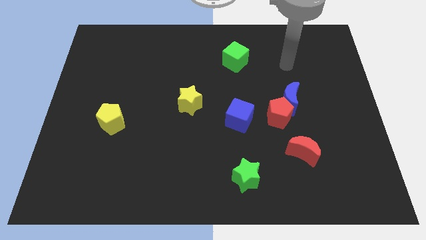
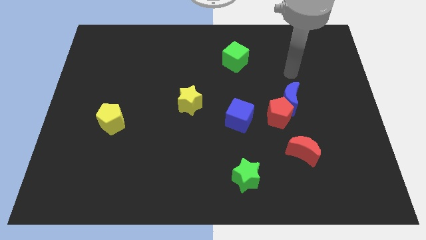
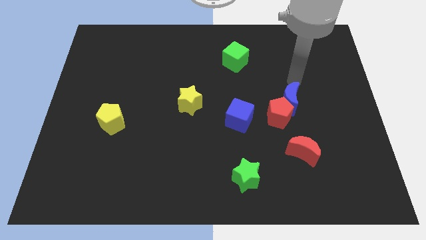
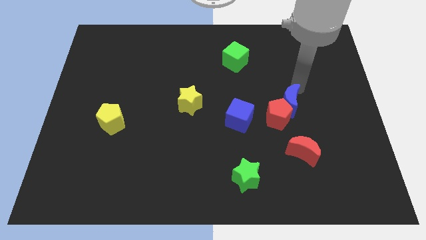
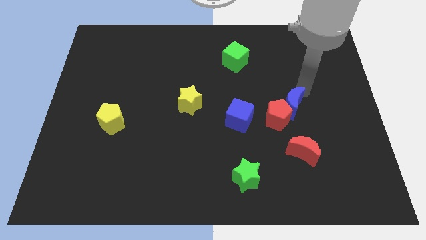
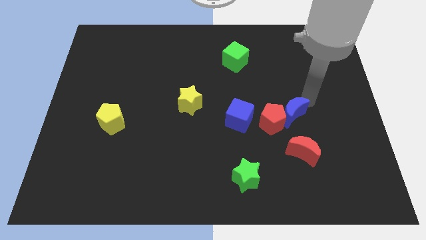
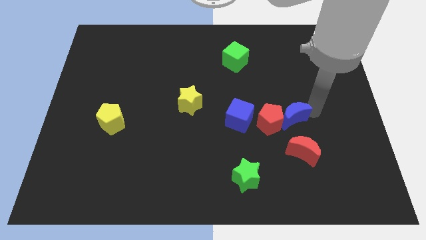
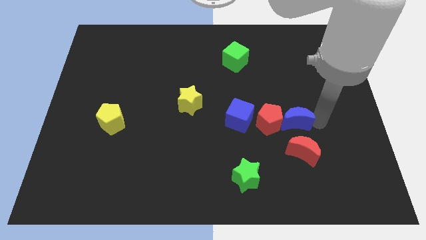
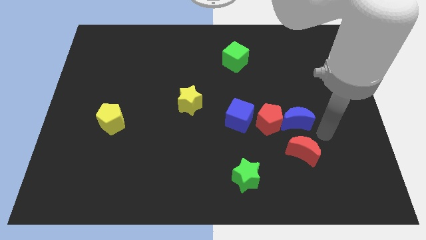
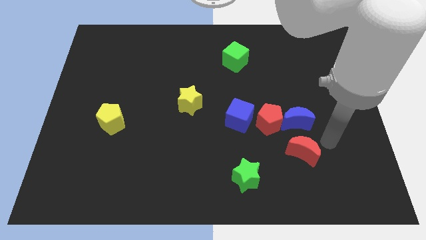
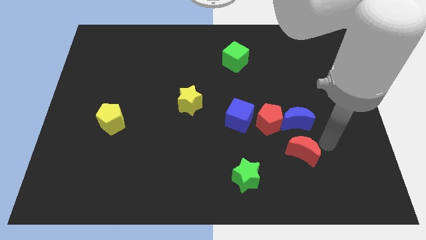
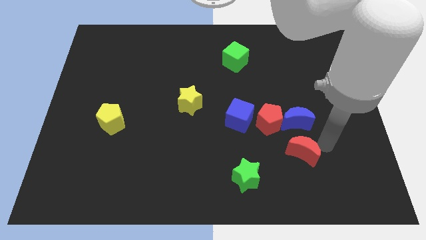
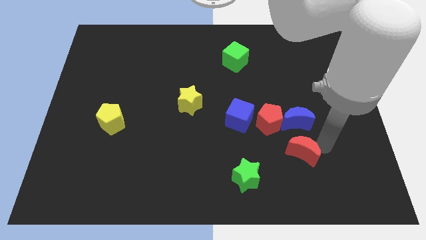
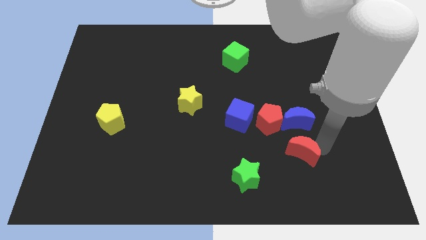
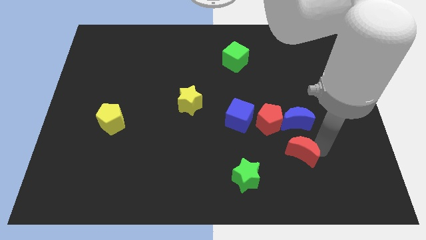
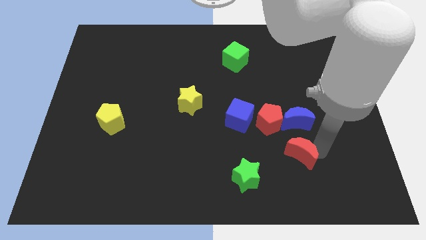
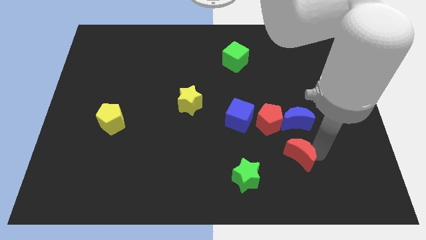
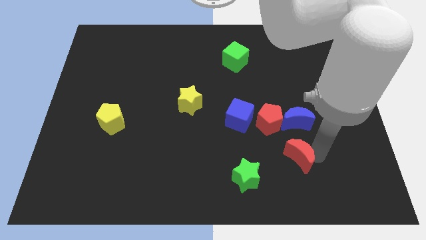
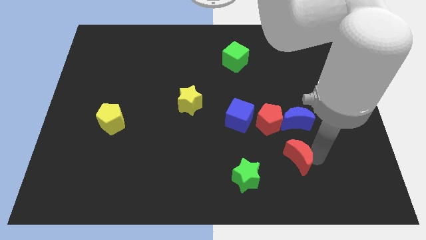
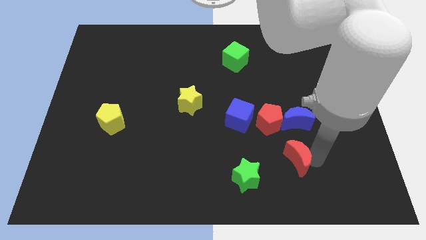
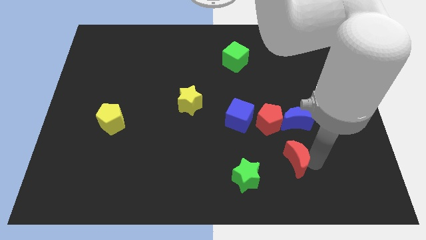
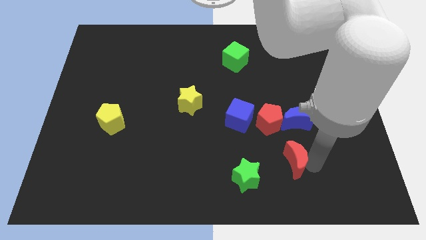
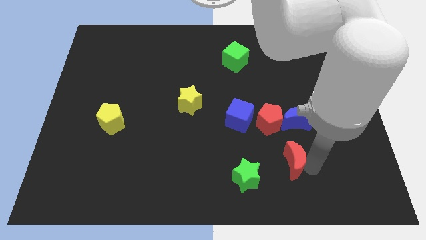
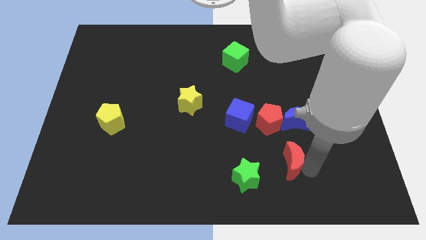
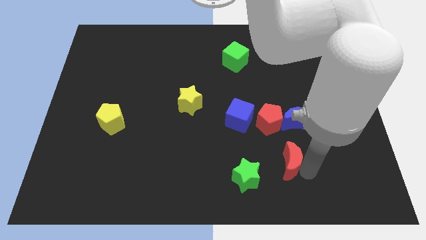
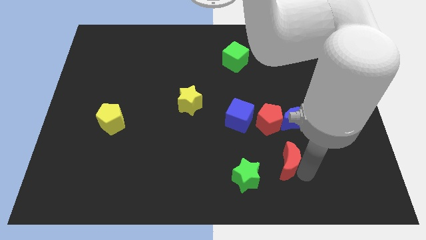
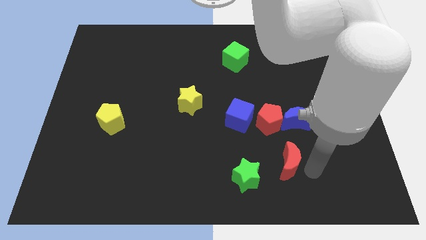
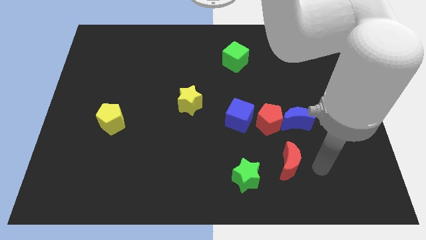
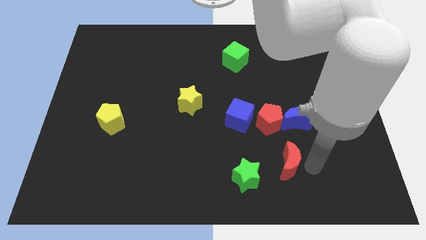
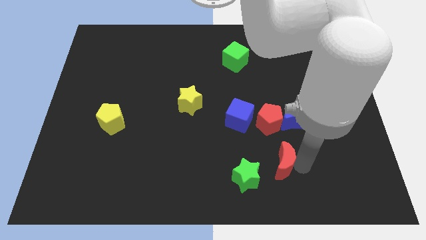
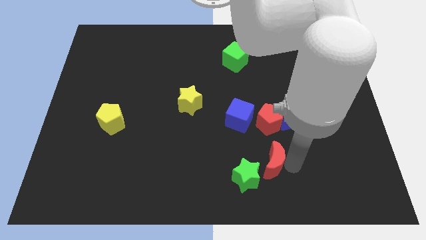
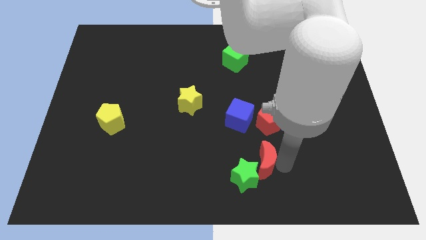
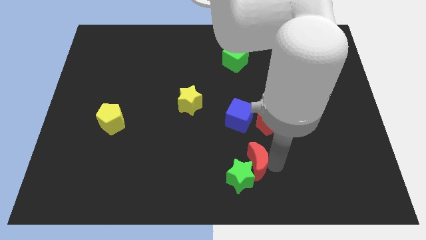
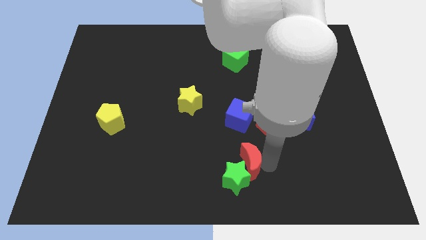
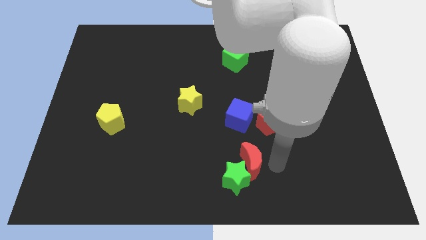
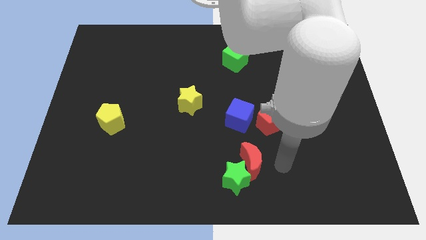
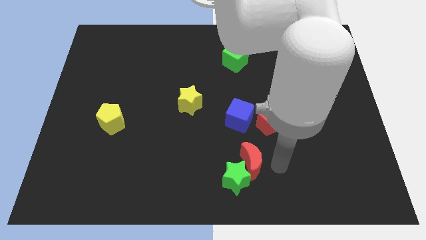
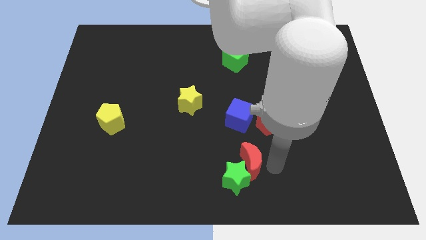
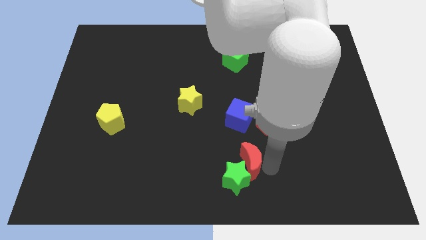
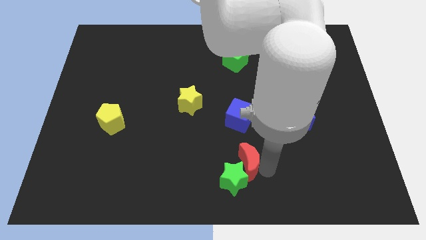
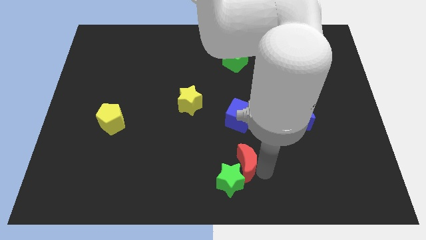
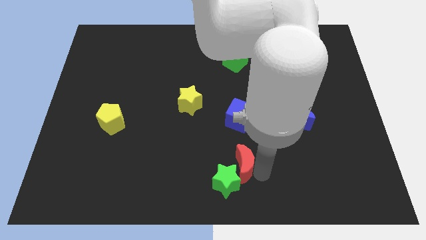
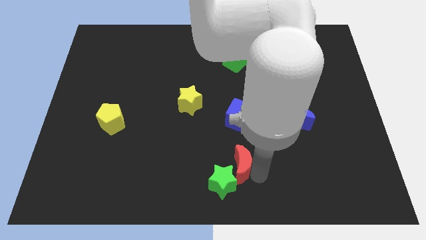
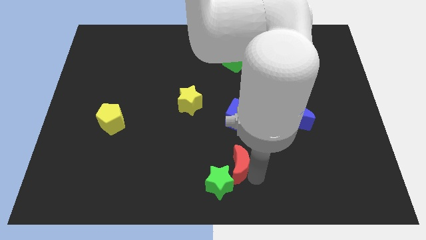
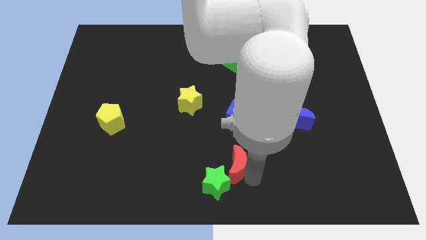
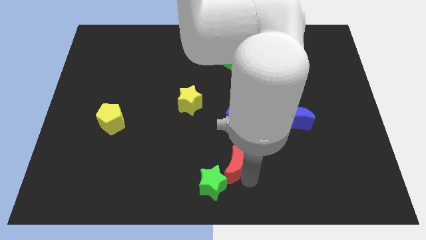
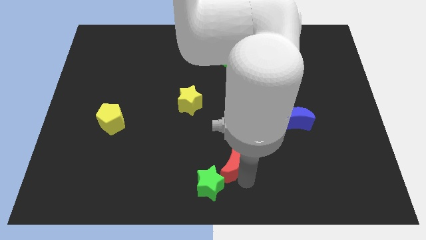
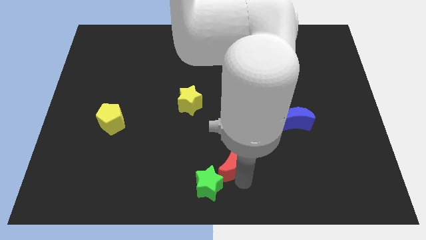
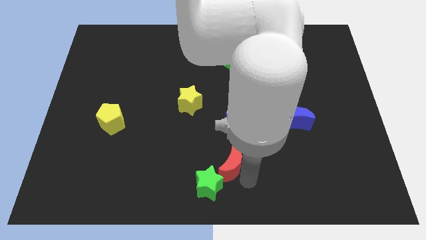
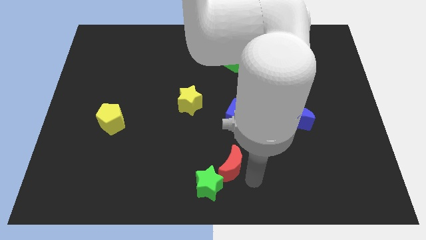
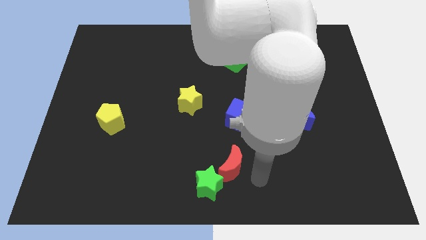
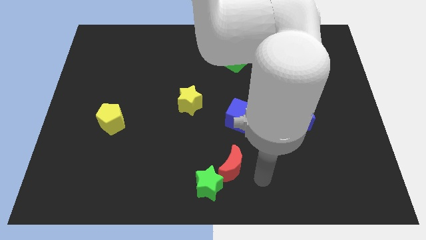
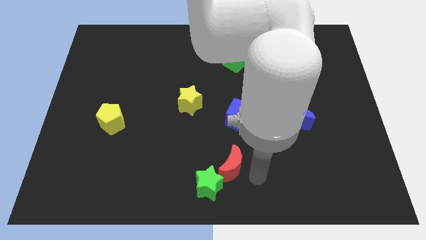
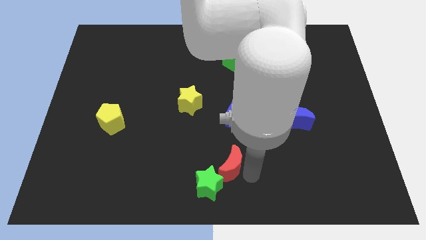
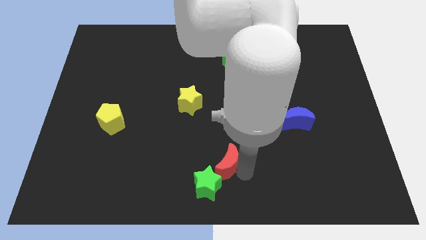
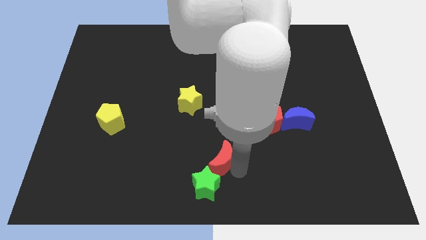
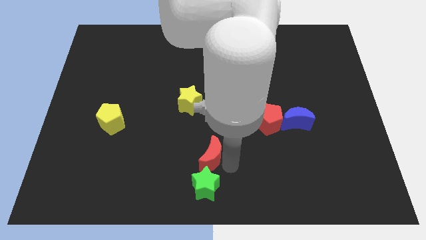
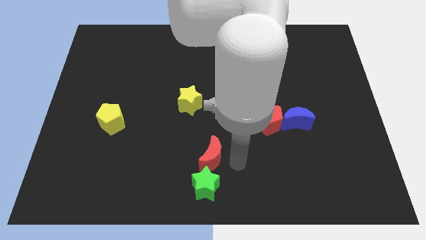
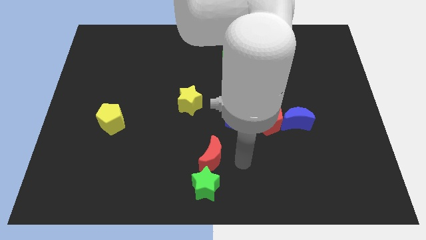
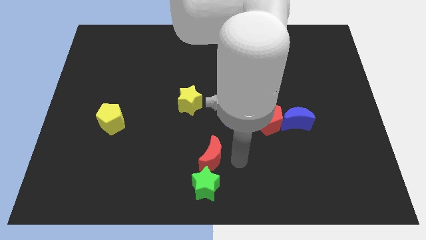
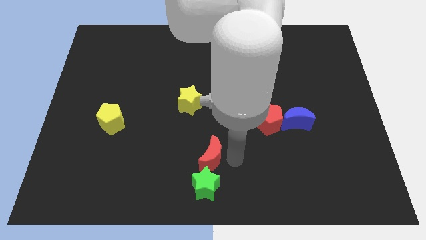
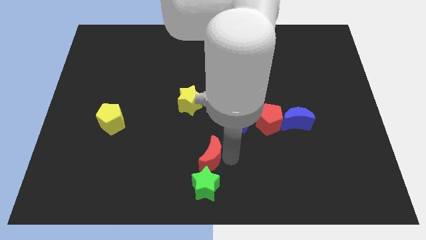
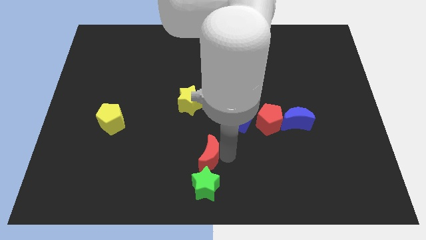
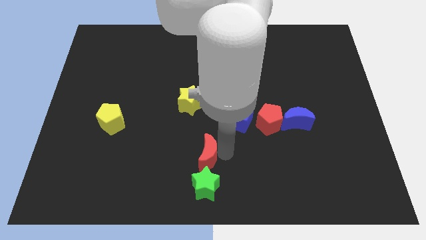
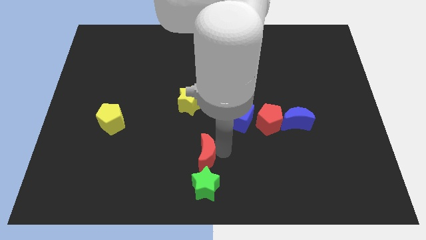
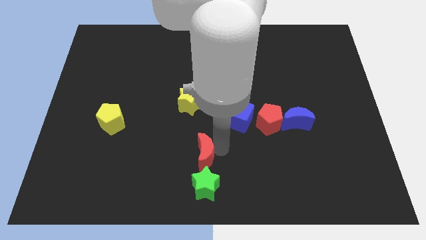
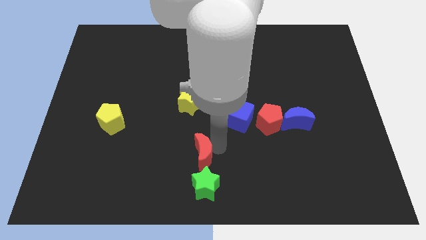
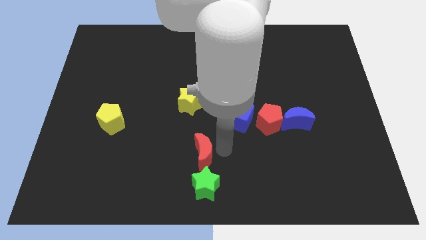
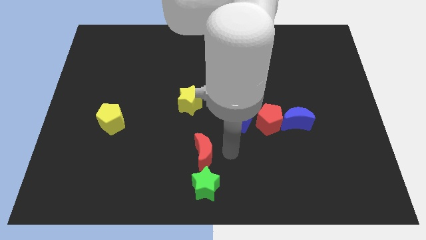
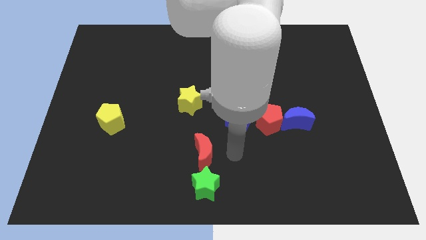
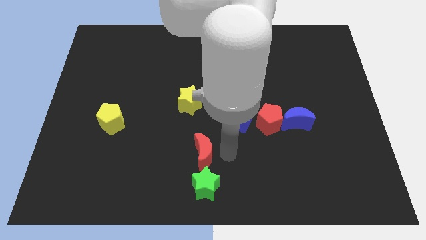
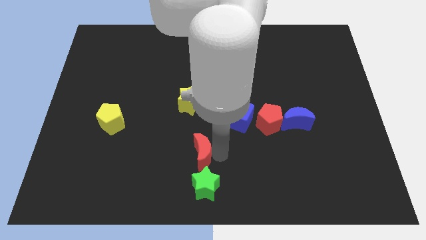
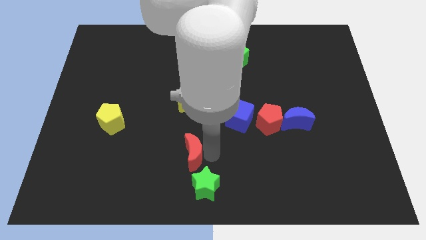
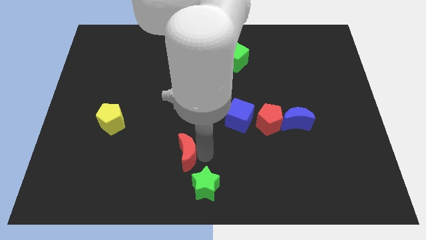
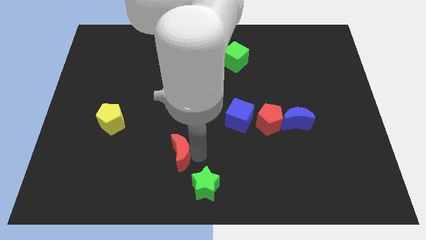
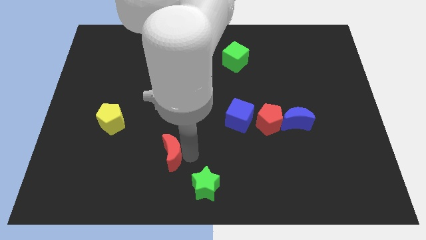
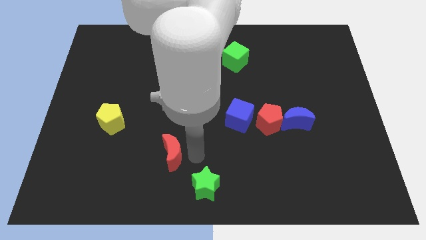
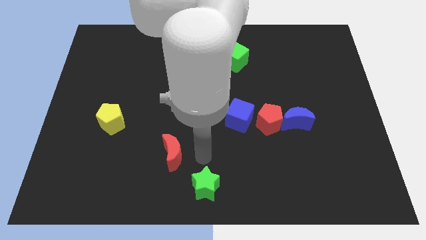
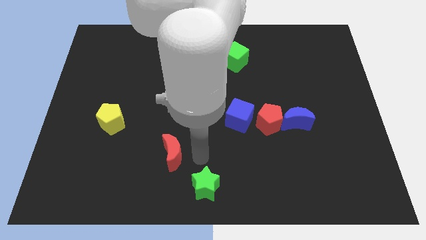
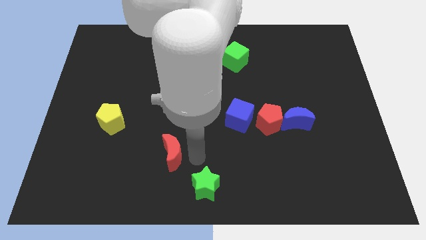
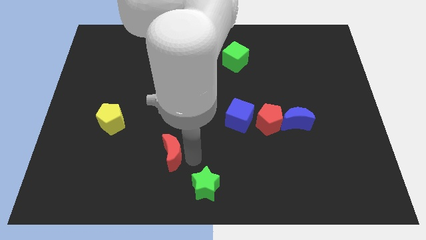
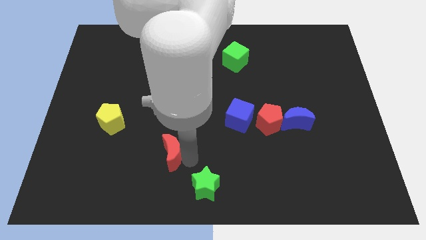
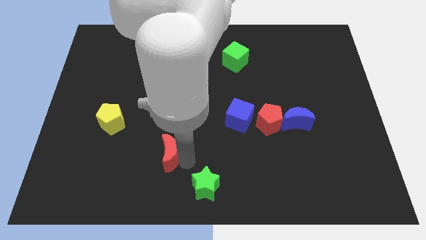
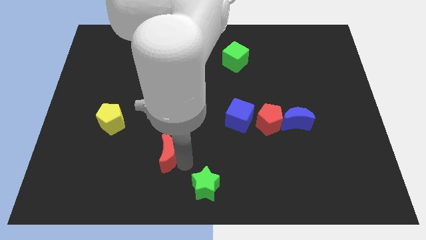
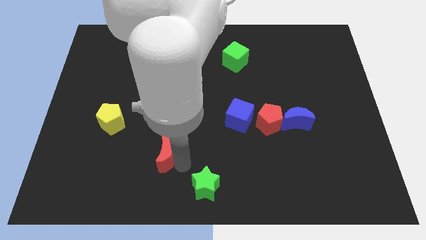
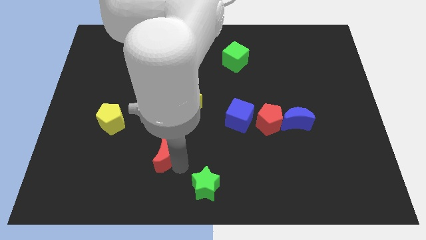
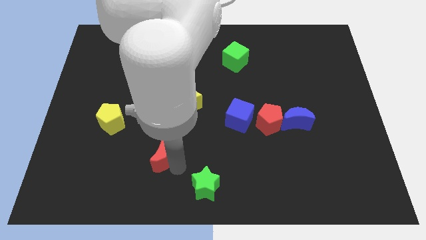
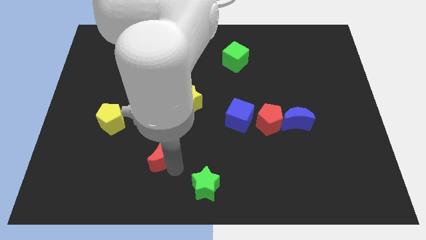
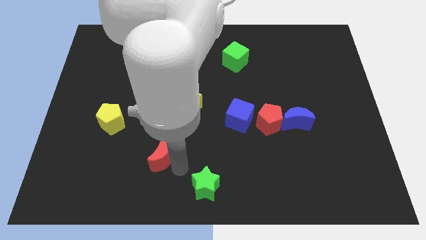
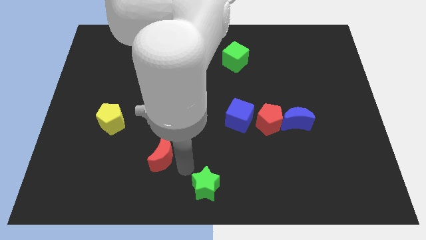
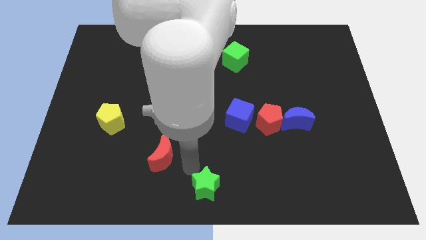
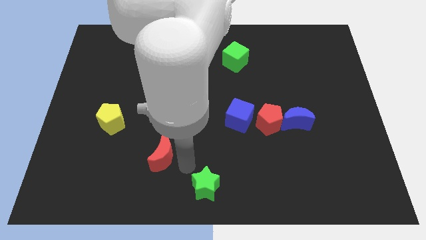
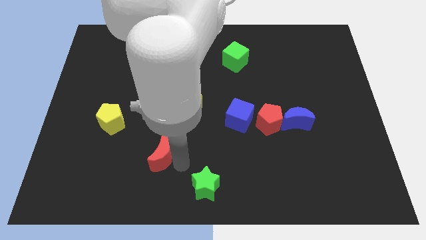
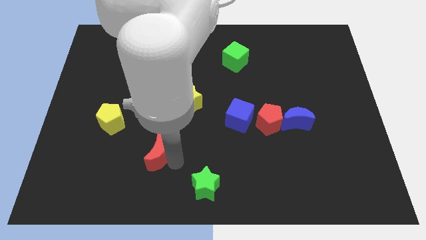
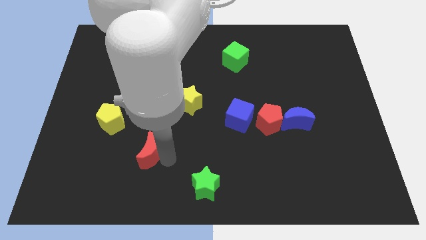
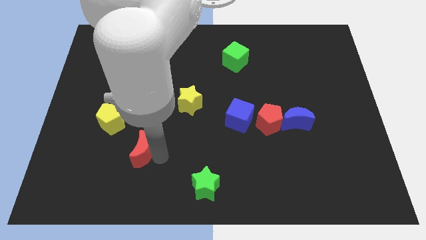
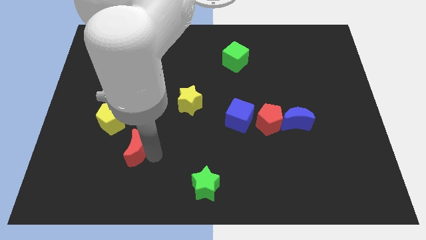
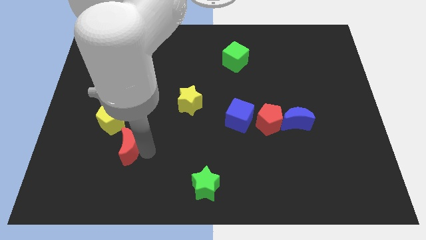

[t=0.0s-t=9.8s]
push the red moon to the bottom of the yellow pentagon
